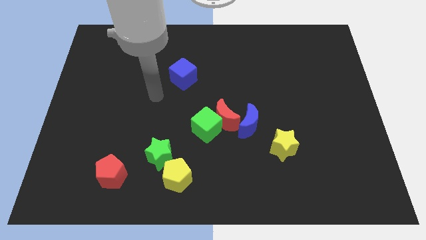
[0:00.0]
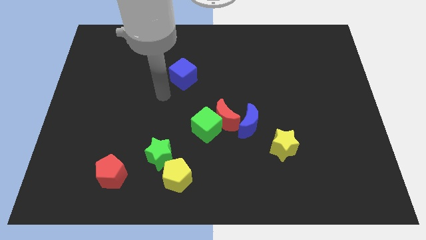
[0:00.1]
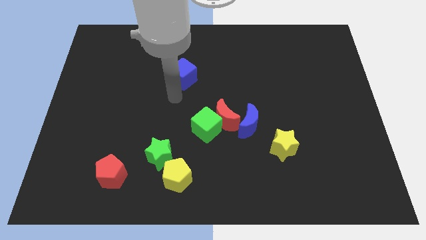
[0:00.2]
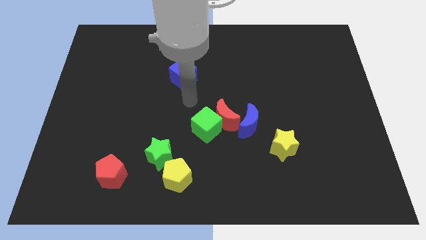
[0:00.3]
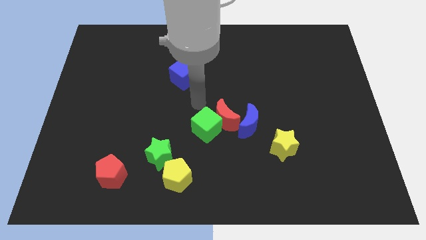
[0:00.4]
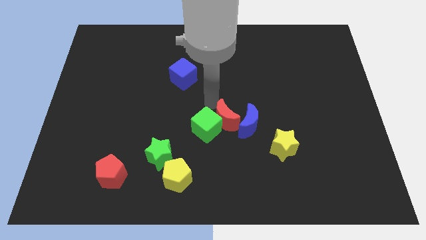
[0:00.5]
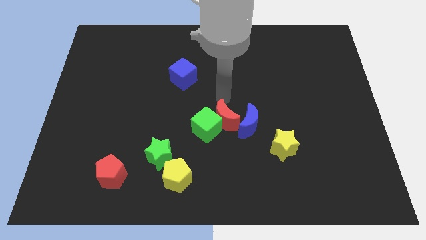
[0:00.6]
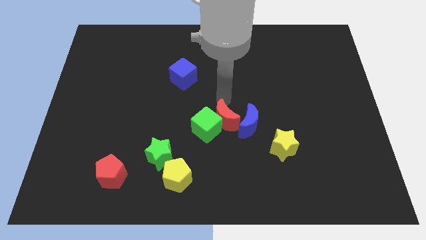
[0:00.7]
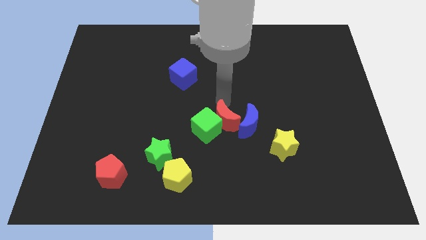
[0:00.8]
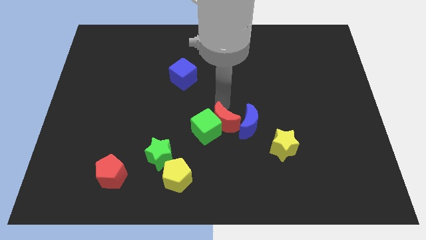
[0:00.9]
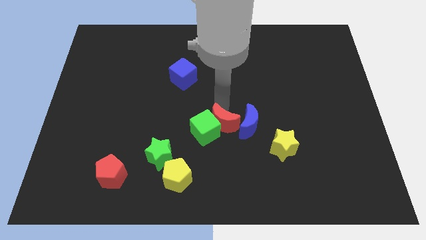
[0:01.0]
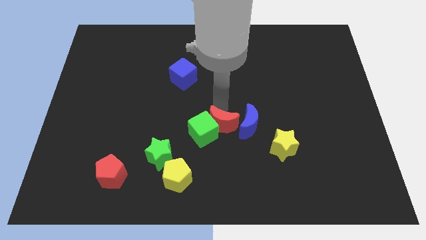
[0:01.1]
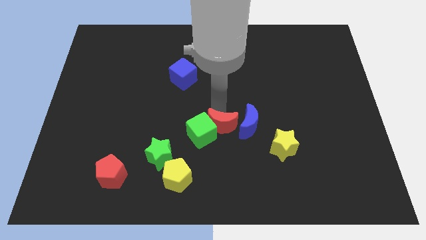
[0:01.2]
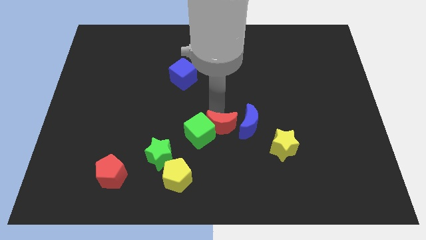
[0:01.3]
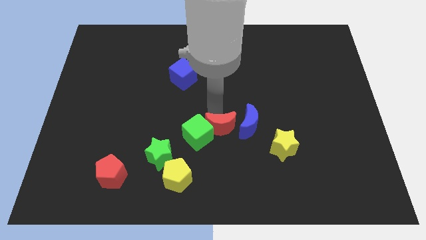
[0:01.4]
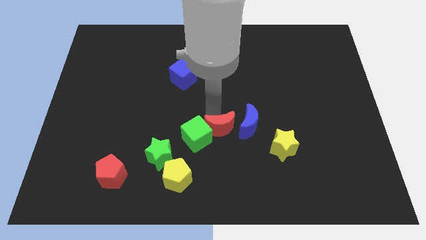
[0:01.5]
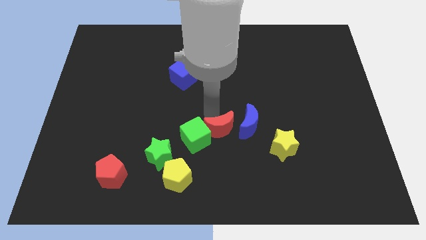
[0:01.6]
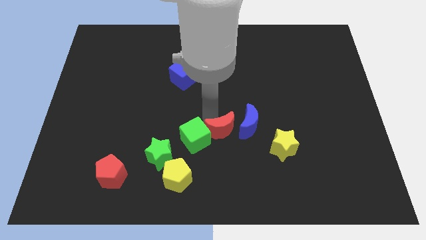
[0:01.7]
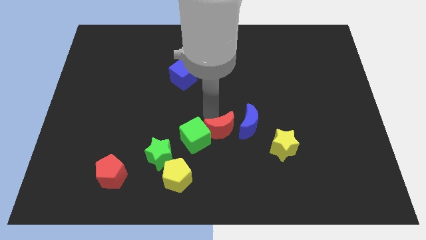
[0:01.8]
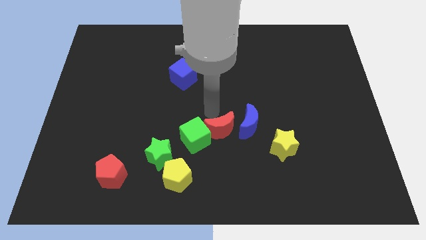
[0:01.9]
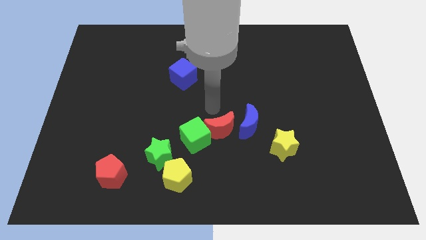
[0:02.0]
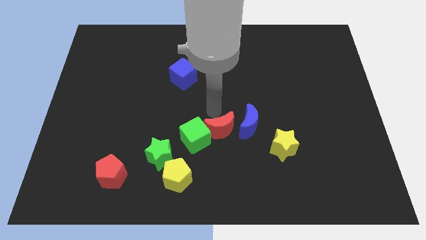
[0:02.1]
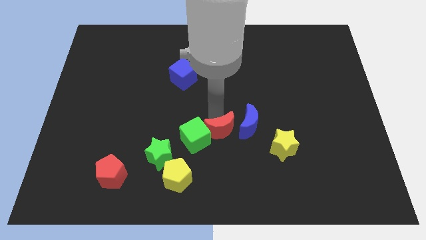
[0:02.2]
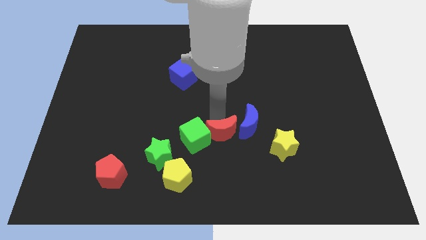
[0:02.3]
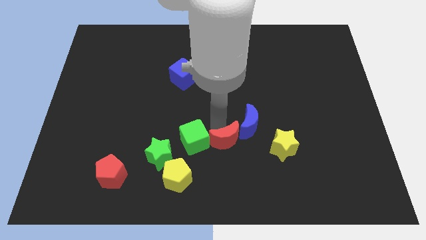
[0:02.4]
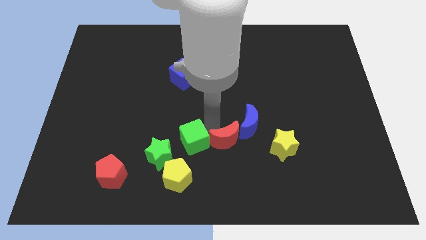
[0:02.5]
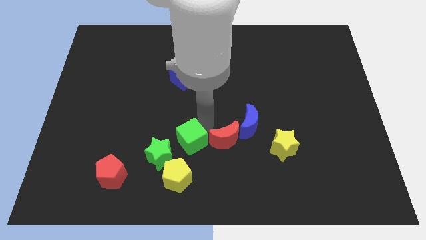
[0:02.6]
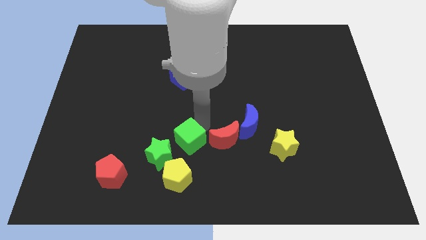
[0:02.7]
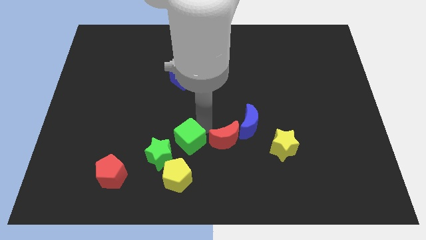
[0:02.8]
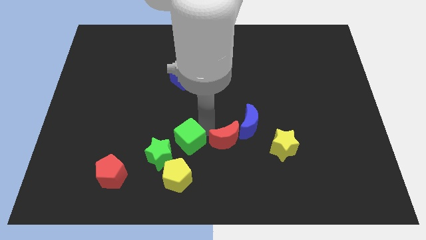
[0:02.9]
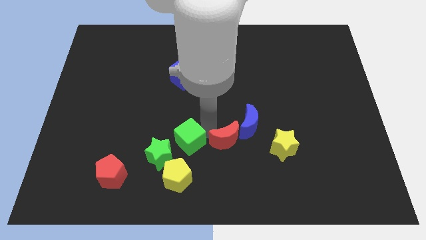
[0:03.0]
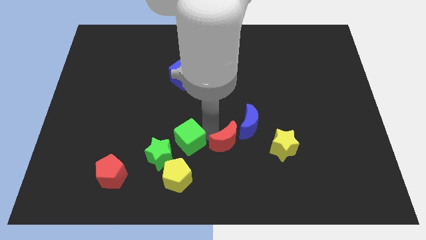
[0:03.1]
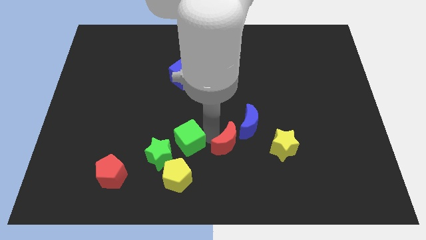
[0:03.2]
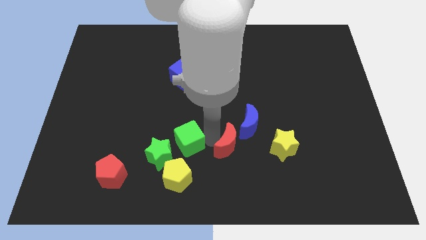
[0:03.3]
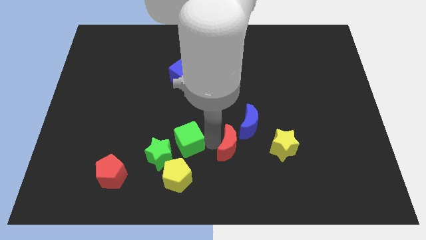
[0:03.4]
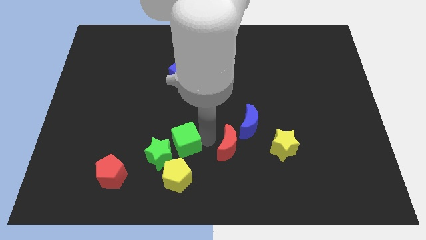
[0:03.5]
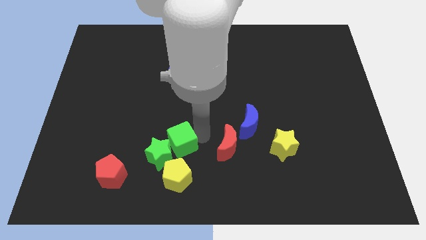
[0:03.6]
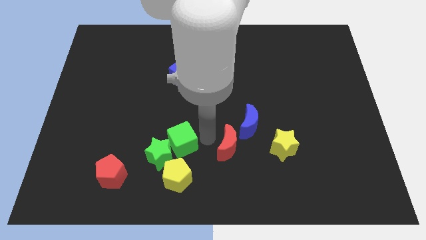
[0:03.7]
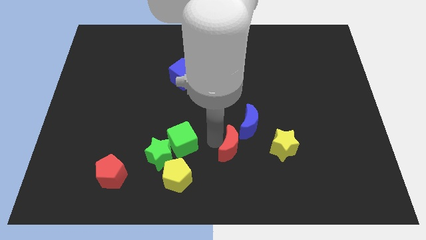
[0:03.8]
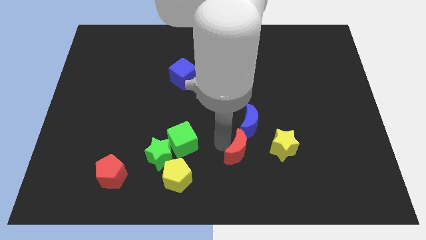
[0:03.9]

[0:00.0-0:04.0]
slide the red moon slightly downwards and then right

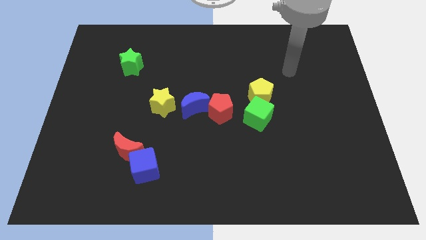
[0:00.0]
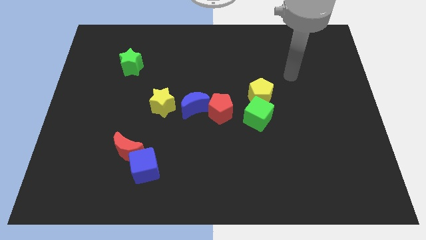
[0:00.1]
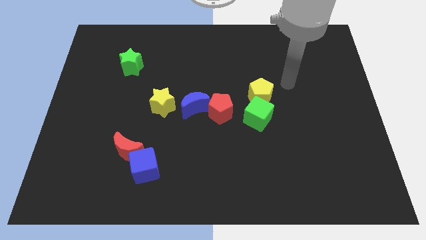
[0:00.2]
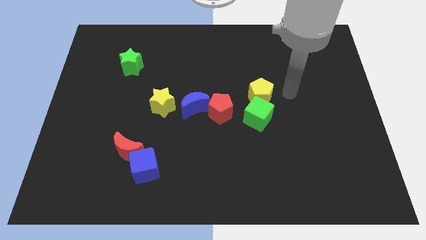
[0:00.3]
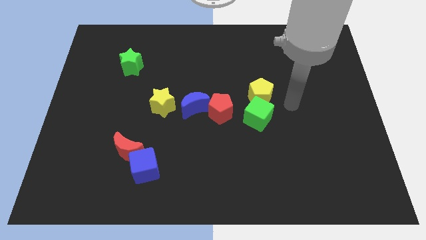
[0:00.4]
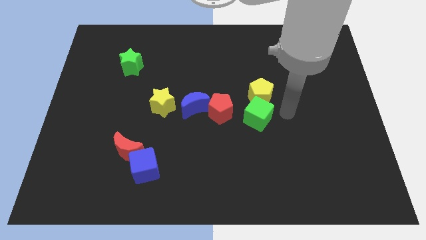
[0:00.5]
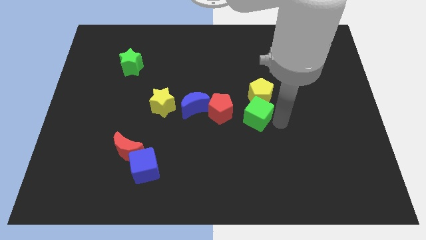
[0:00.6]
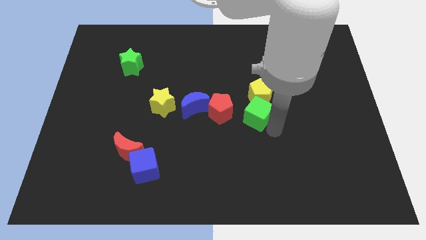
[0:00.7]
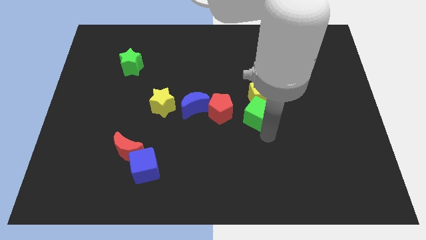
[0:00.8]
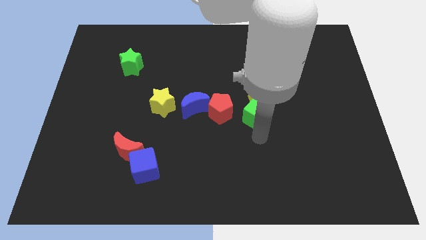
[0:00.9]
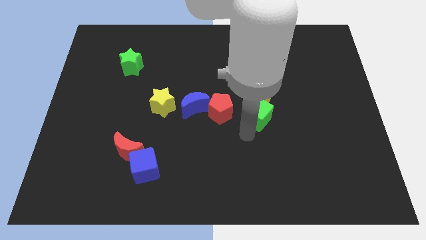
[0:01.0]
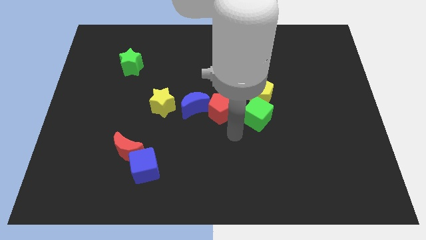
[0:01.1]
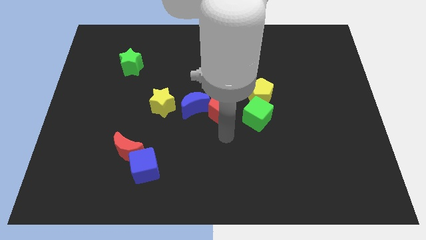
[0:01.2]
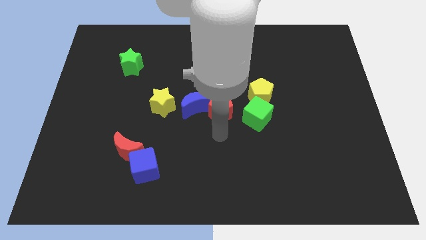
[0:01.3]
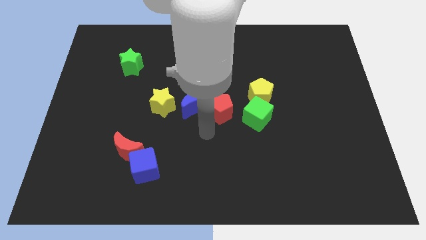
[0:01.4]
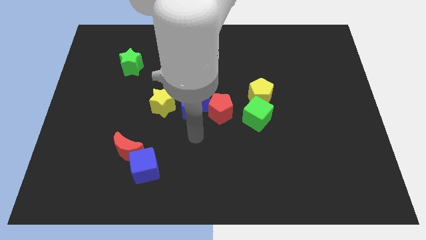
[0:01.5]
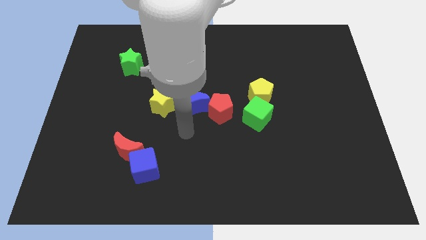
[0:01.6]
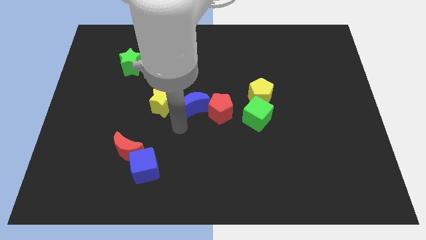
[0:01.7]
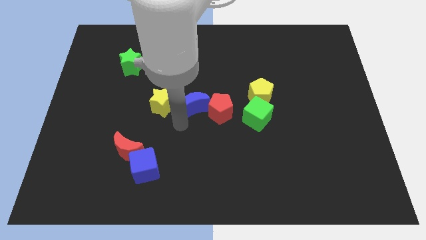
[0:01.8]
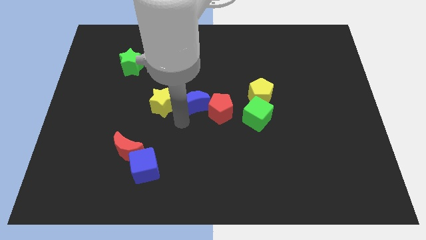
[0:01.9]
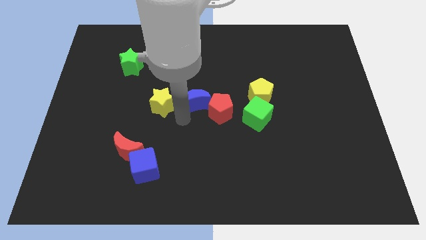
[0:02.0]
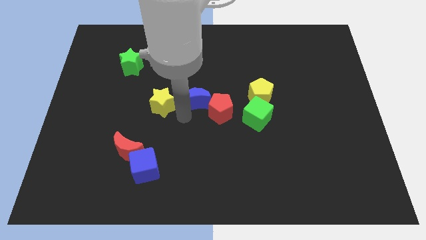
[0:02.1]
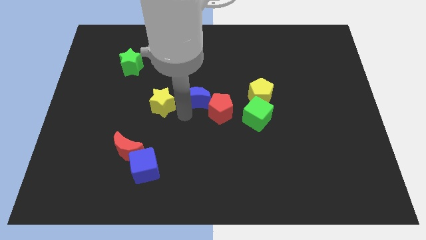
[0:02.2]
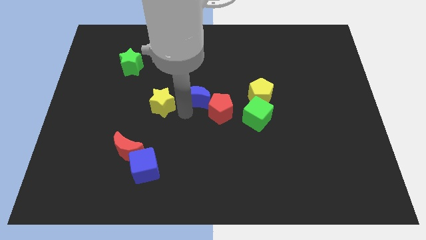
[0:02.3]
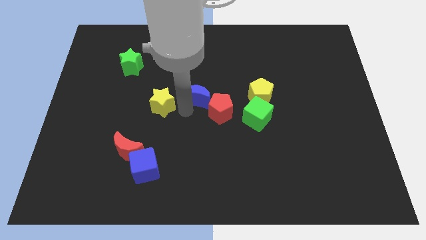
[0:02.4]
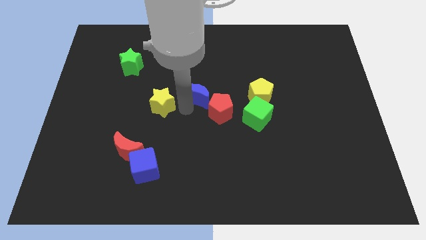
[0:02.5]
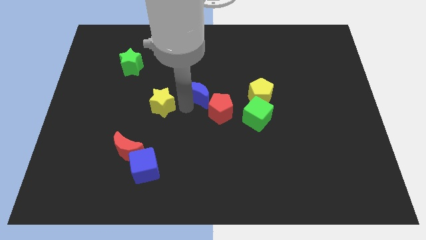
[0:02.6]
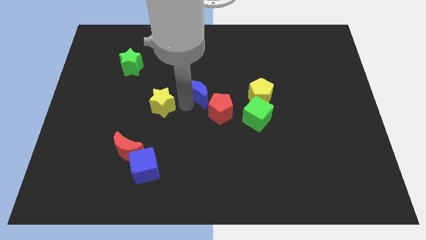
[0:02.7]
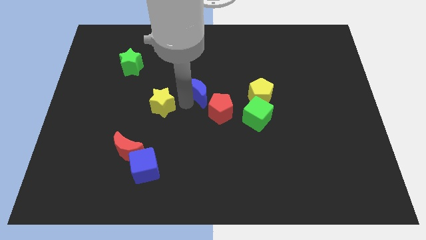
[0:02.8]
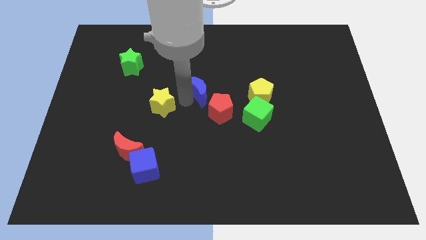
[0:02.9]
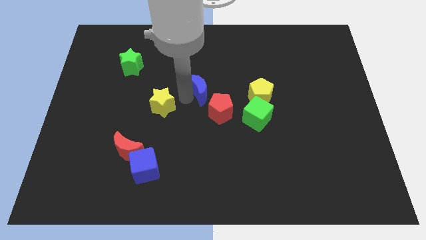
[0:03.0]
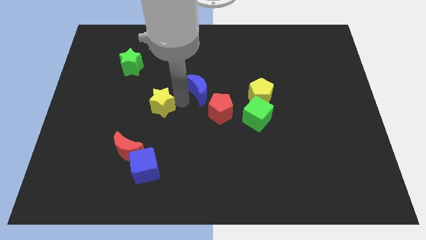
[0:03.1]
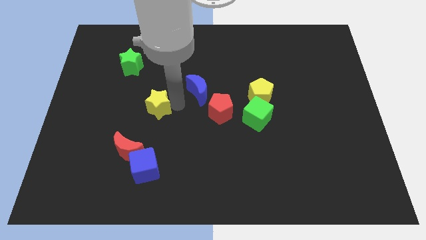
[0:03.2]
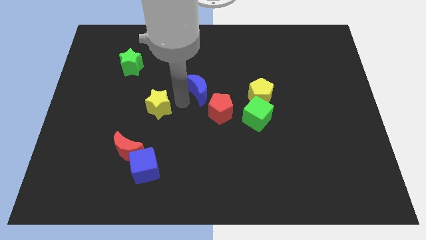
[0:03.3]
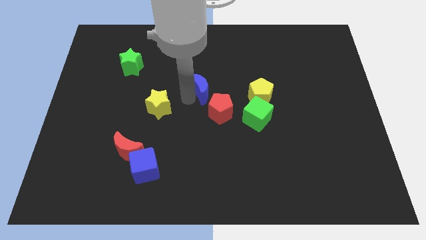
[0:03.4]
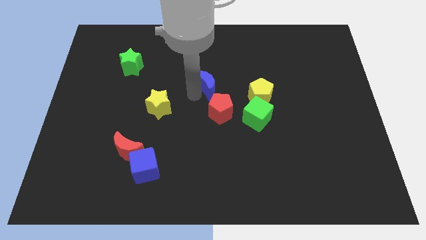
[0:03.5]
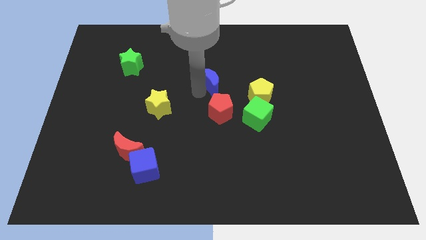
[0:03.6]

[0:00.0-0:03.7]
push the blue moon a little bit diagonally upwards and right

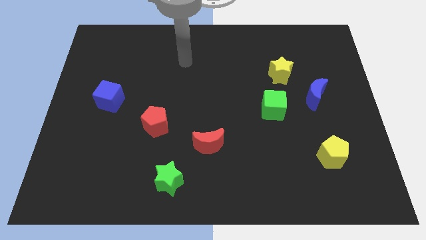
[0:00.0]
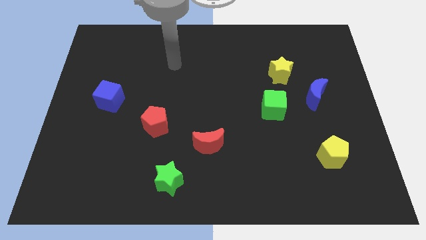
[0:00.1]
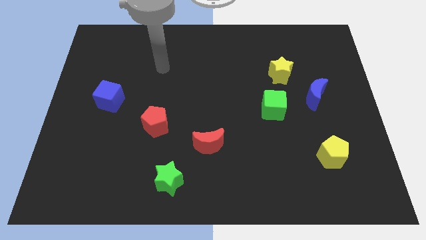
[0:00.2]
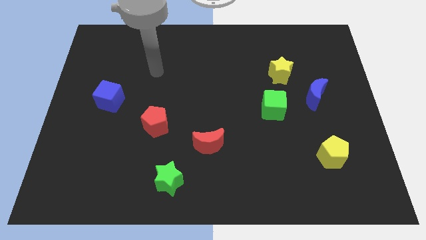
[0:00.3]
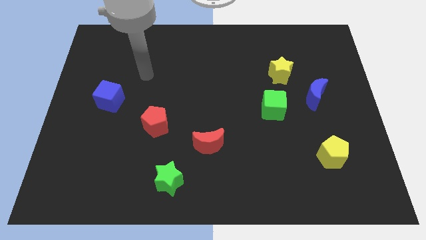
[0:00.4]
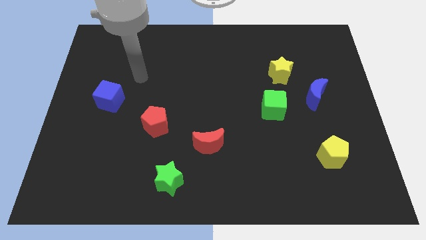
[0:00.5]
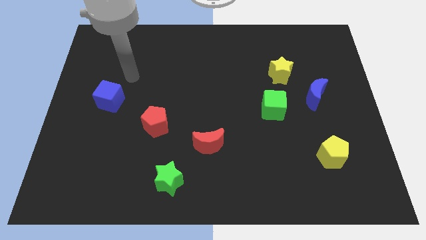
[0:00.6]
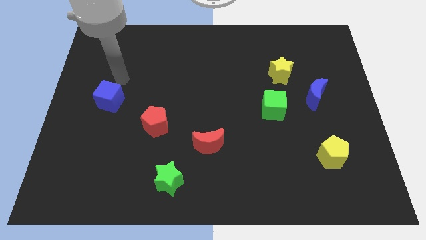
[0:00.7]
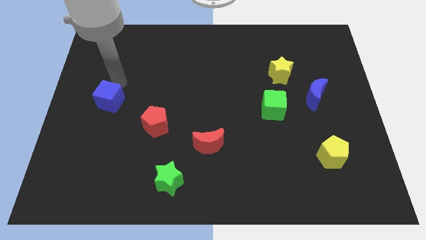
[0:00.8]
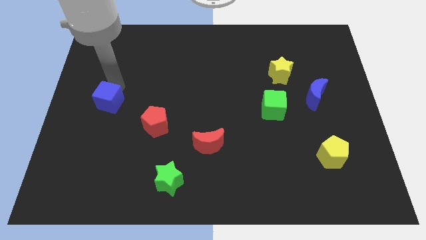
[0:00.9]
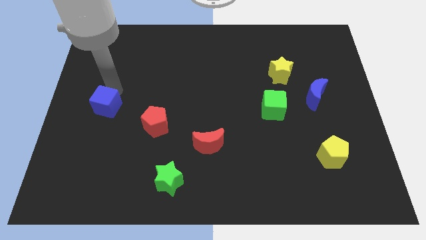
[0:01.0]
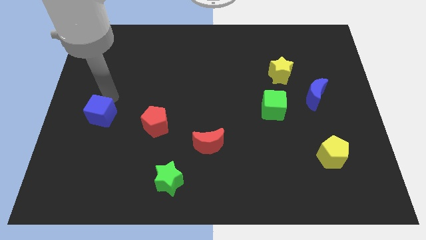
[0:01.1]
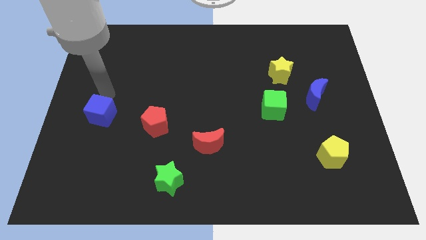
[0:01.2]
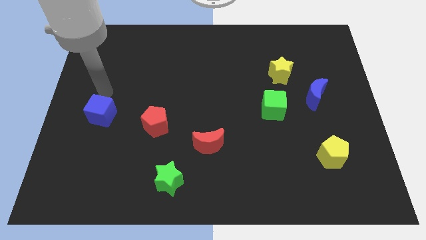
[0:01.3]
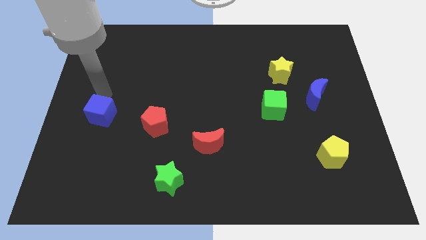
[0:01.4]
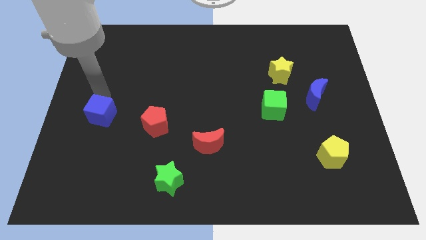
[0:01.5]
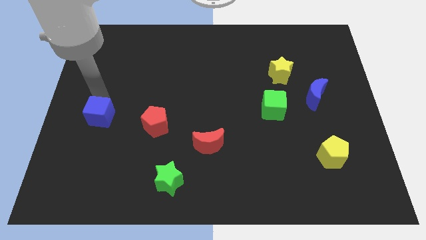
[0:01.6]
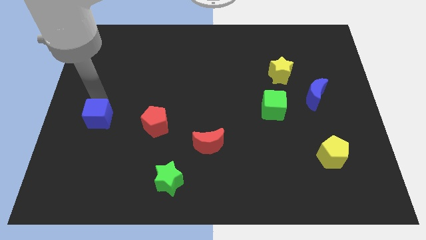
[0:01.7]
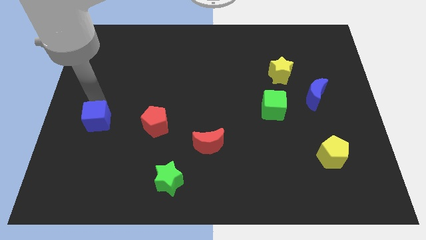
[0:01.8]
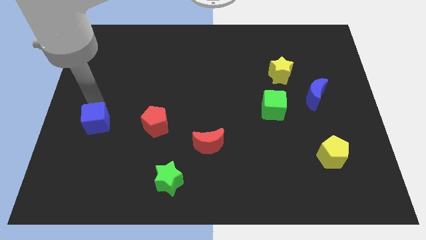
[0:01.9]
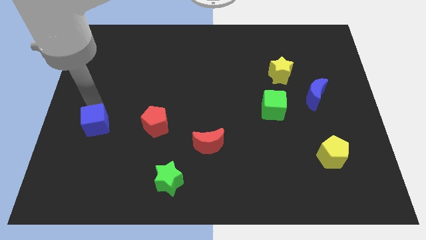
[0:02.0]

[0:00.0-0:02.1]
push the blue cube down a little
